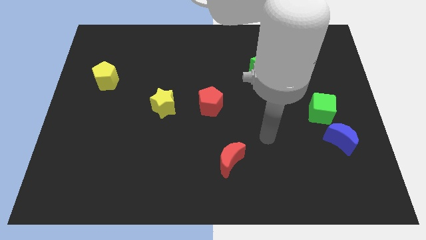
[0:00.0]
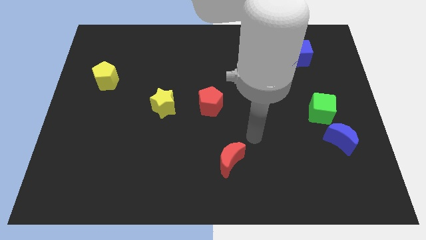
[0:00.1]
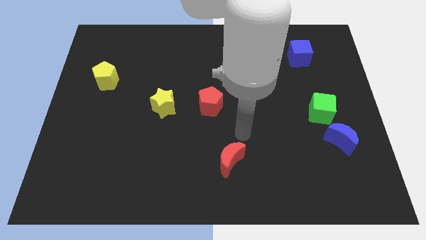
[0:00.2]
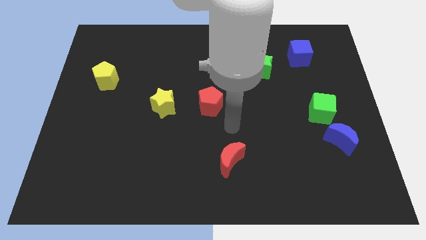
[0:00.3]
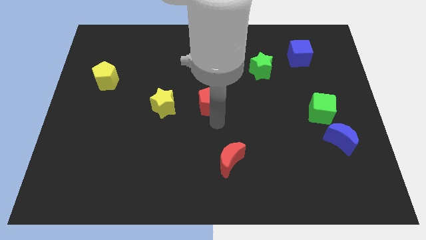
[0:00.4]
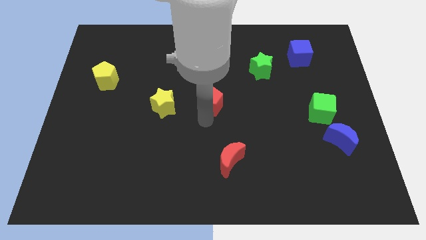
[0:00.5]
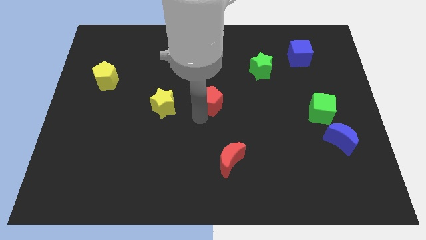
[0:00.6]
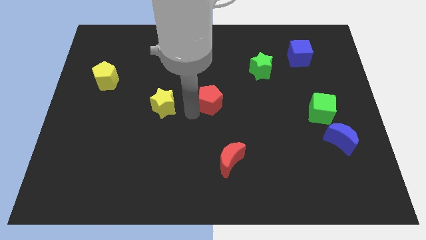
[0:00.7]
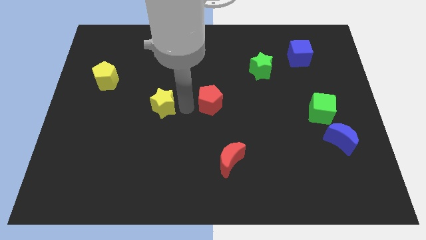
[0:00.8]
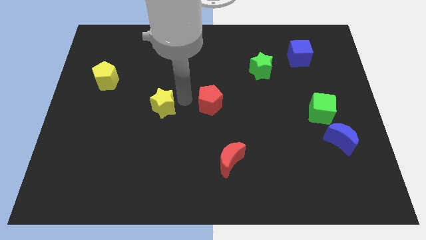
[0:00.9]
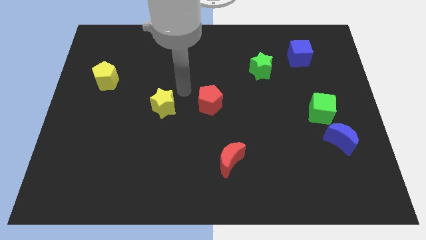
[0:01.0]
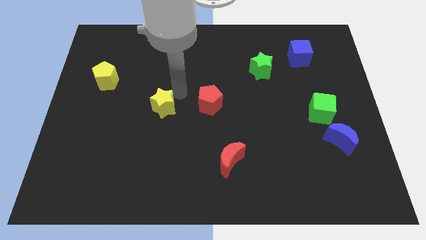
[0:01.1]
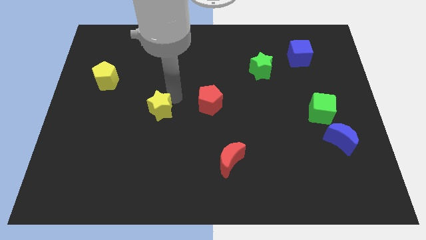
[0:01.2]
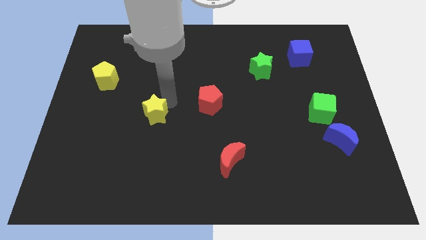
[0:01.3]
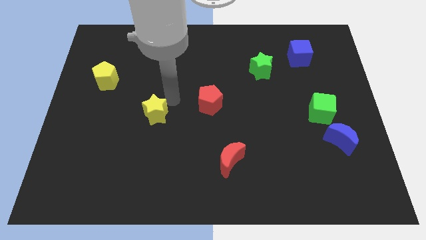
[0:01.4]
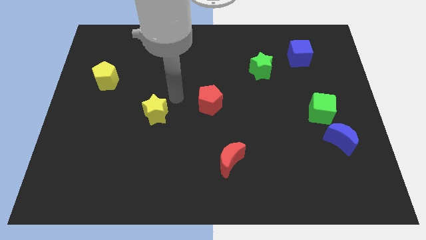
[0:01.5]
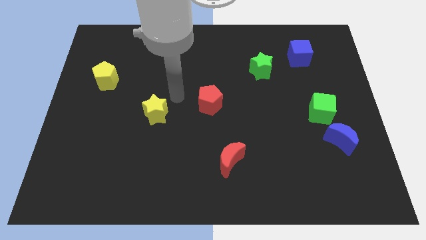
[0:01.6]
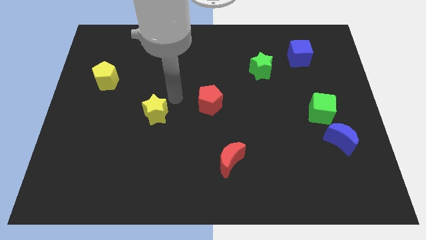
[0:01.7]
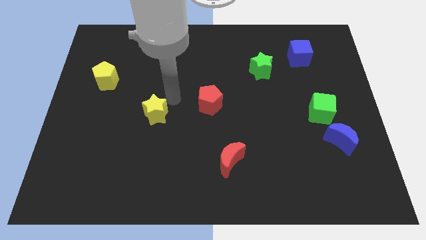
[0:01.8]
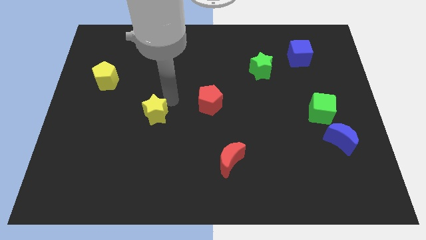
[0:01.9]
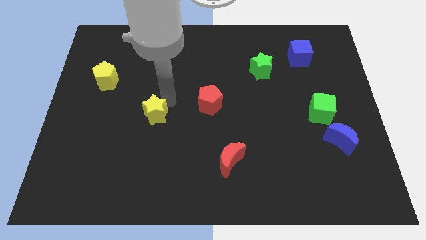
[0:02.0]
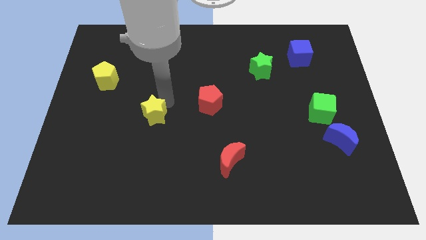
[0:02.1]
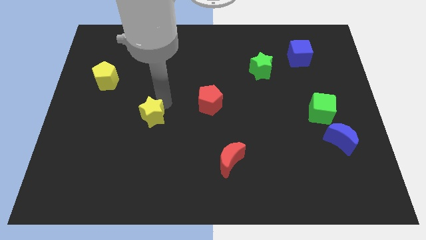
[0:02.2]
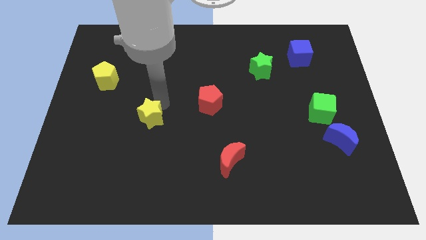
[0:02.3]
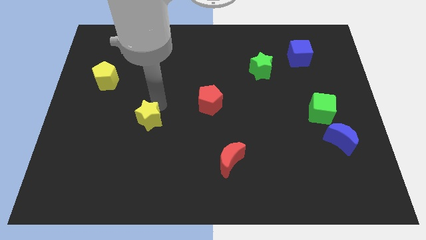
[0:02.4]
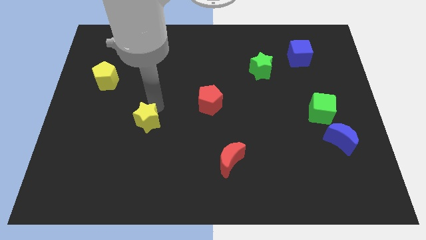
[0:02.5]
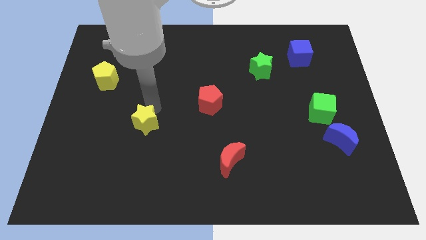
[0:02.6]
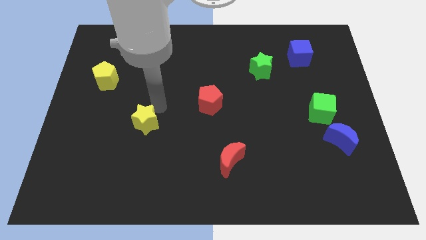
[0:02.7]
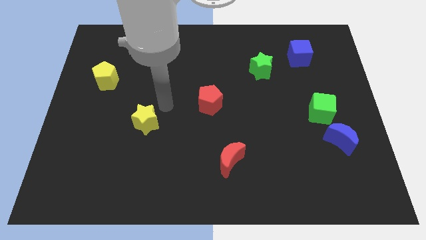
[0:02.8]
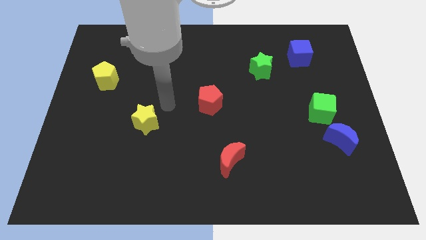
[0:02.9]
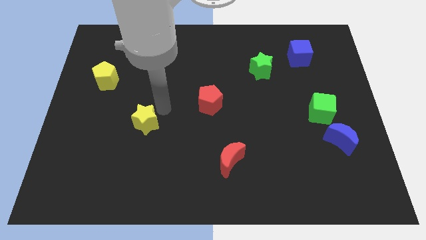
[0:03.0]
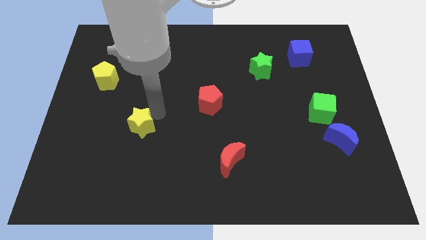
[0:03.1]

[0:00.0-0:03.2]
move the yellow star down and then left a little

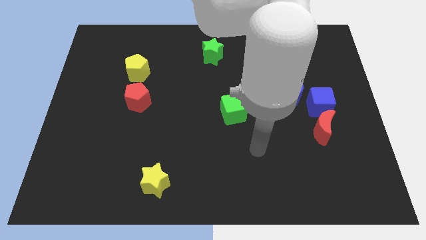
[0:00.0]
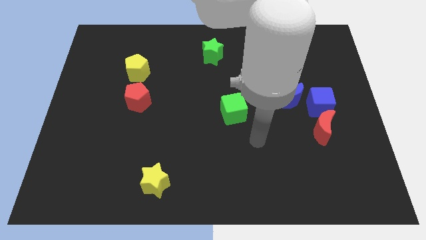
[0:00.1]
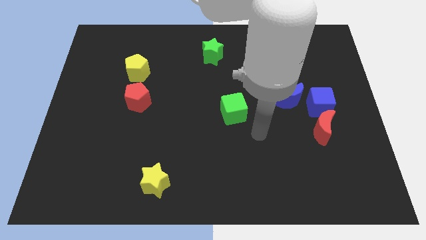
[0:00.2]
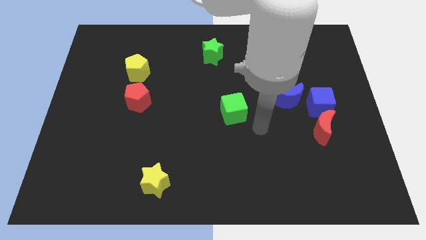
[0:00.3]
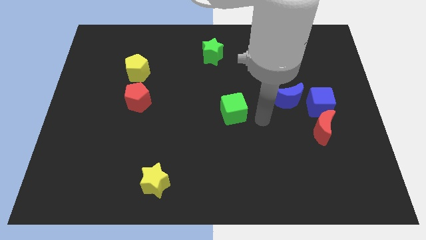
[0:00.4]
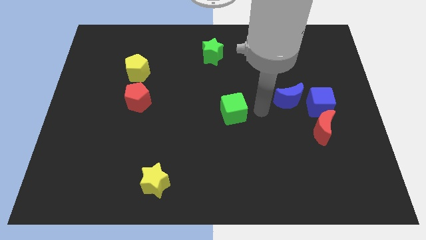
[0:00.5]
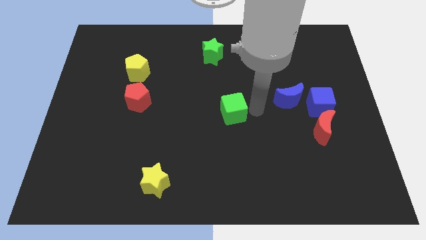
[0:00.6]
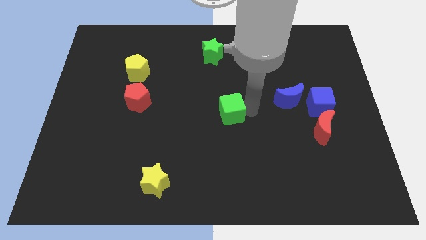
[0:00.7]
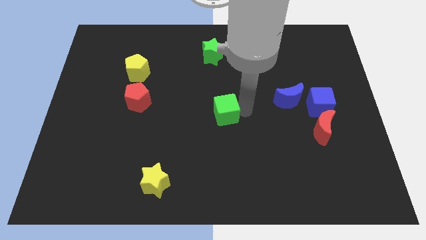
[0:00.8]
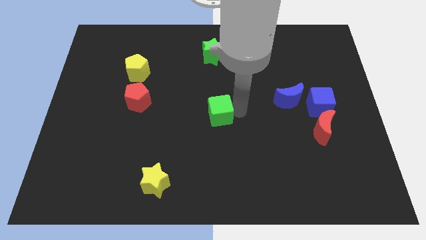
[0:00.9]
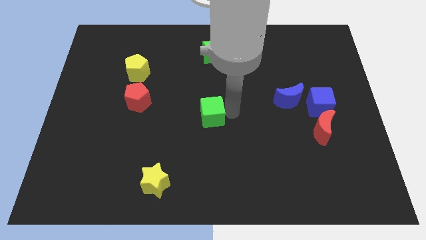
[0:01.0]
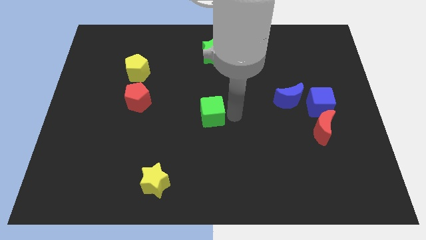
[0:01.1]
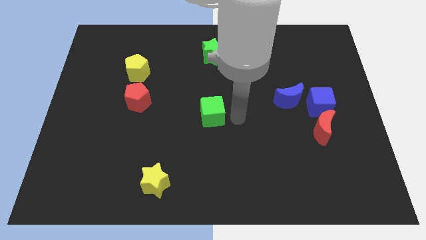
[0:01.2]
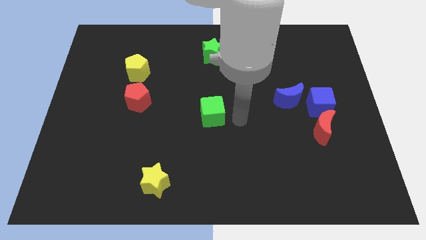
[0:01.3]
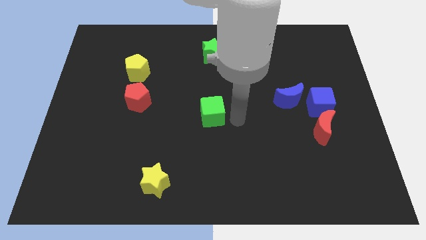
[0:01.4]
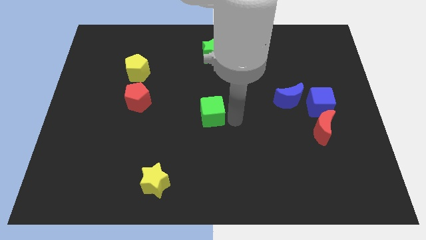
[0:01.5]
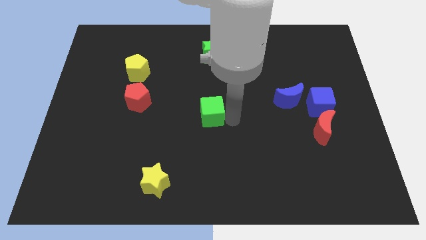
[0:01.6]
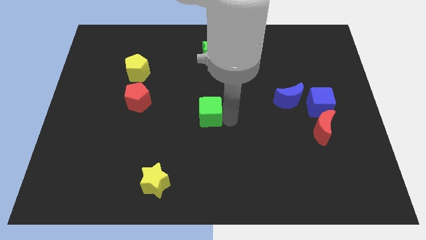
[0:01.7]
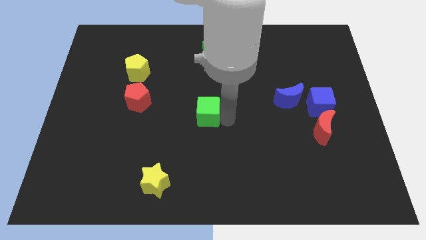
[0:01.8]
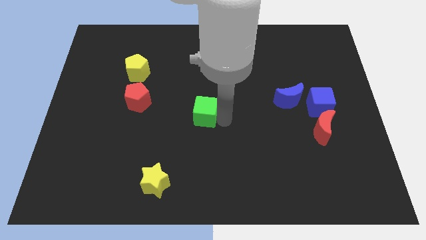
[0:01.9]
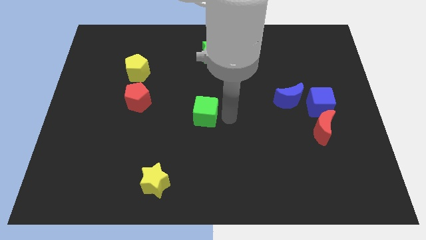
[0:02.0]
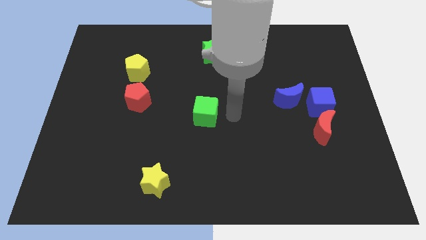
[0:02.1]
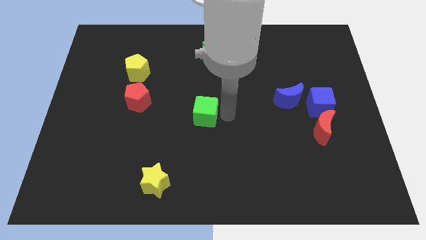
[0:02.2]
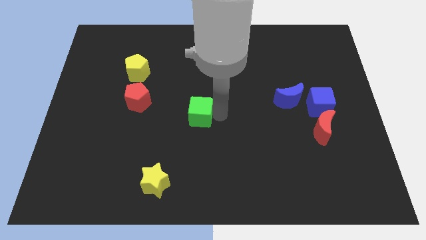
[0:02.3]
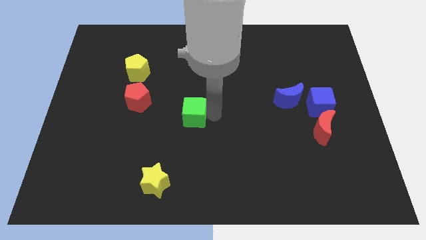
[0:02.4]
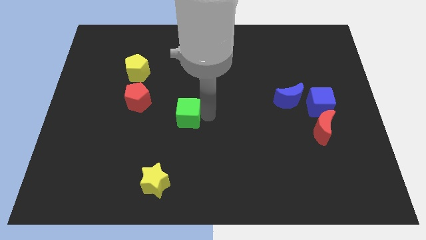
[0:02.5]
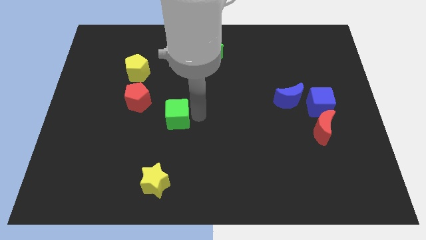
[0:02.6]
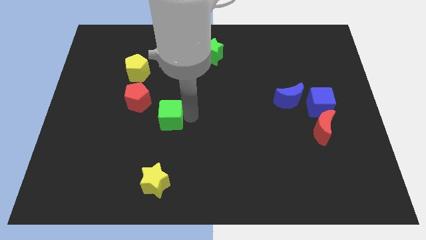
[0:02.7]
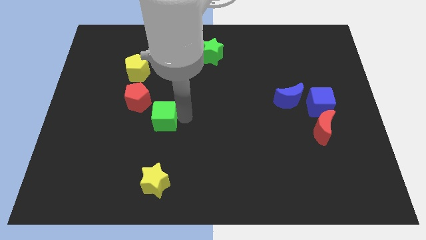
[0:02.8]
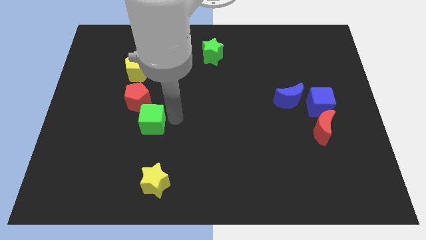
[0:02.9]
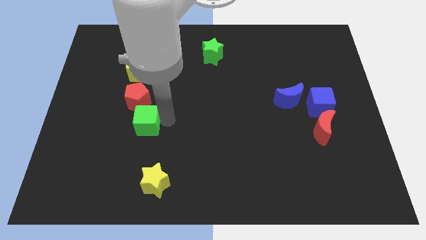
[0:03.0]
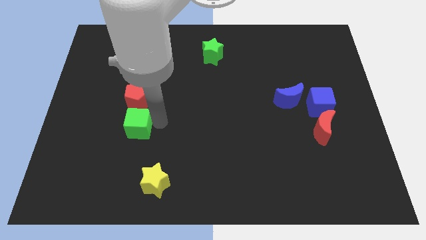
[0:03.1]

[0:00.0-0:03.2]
push the green cube left

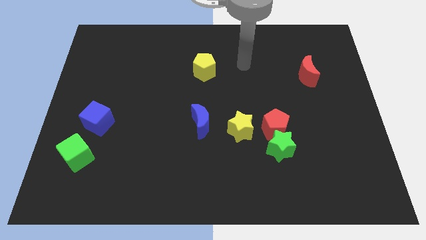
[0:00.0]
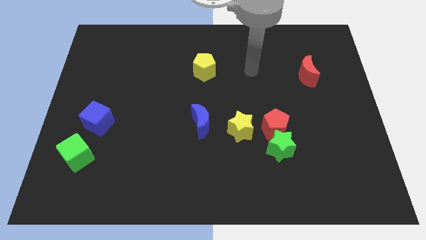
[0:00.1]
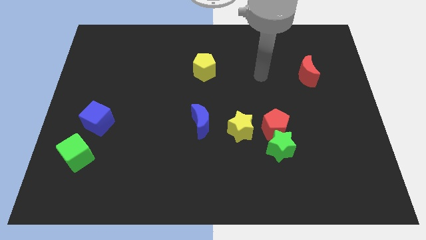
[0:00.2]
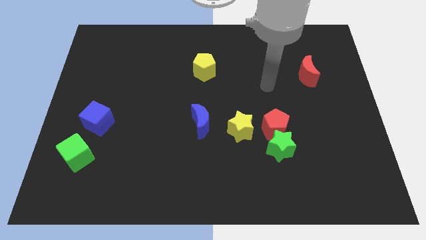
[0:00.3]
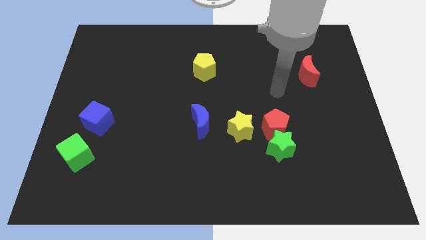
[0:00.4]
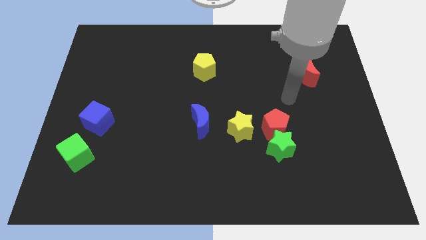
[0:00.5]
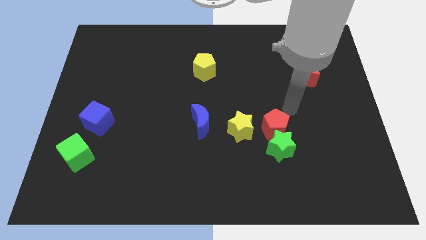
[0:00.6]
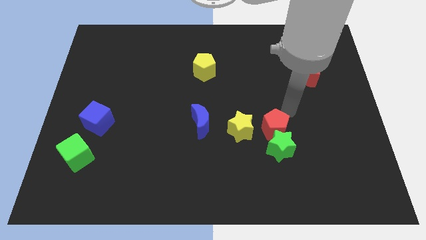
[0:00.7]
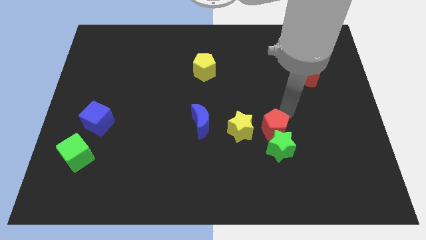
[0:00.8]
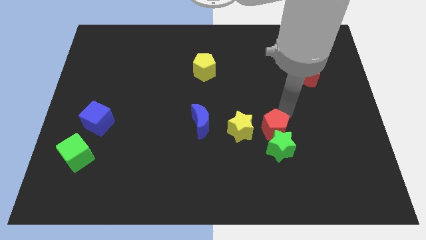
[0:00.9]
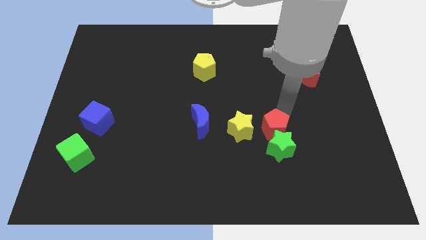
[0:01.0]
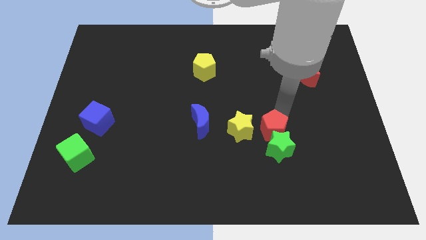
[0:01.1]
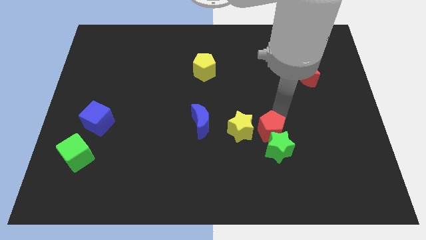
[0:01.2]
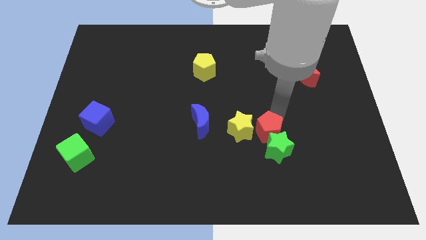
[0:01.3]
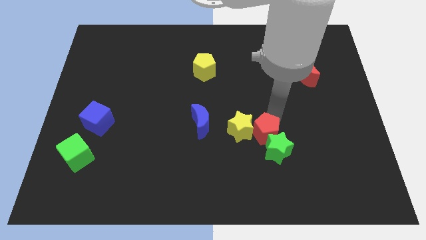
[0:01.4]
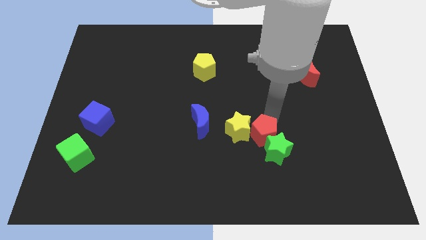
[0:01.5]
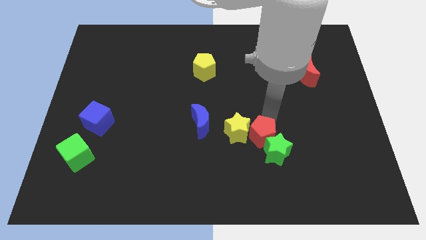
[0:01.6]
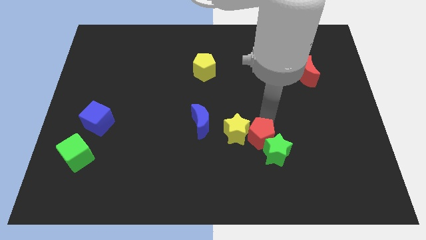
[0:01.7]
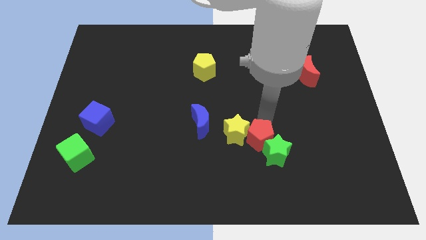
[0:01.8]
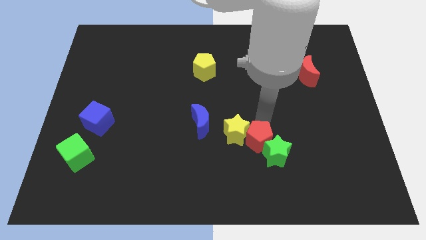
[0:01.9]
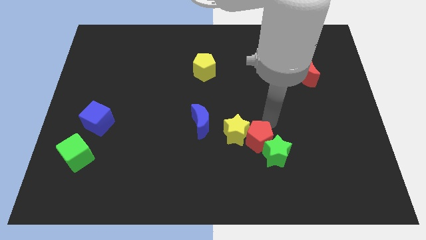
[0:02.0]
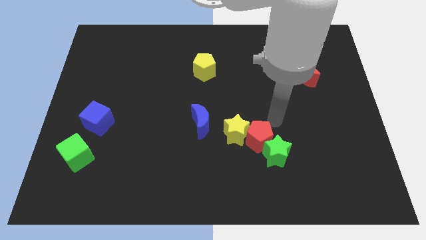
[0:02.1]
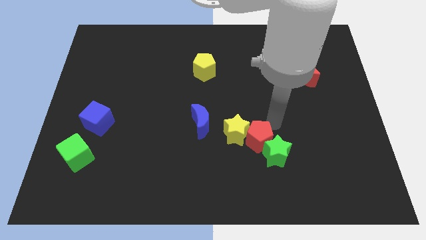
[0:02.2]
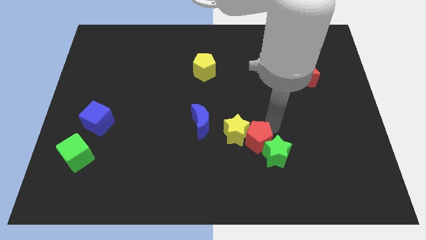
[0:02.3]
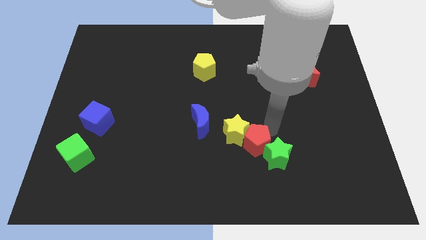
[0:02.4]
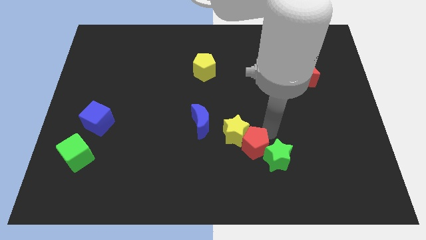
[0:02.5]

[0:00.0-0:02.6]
slide the red pentagon downwards and then left slightly
